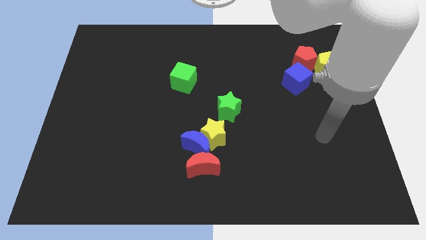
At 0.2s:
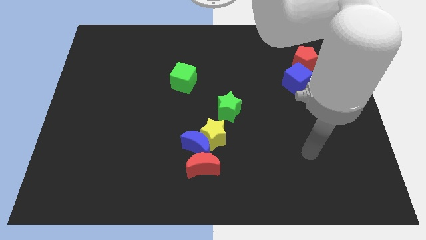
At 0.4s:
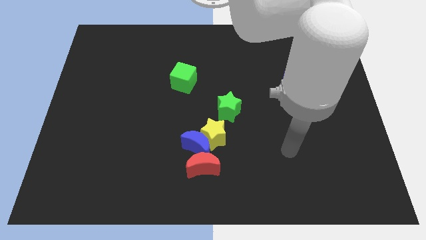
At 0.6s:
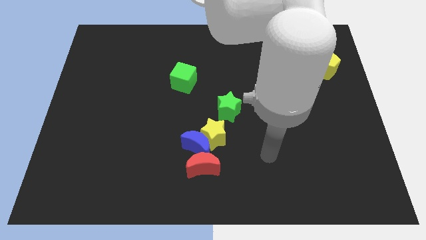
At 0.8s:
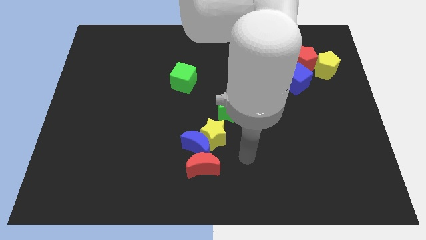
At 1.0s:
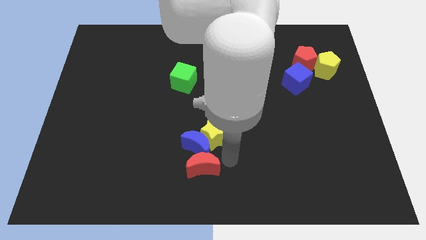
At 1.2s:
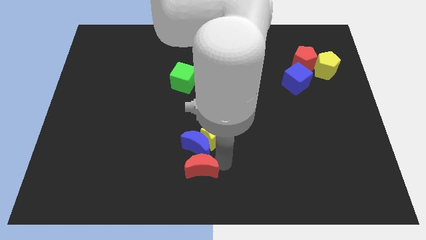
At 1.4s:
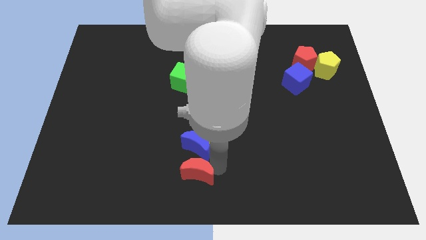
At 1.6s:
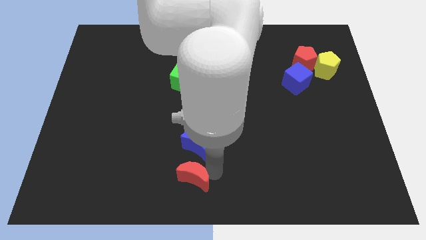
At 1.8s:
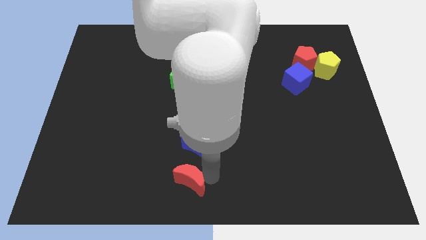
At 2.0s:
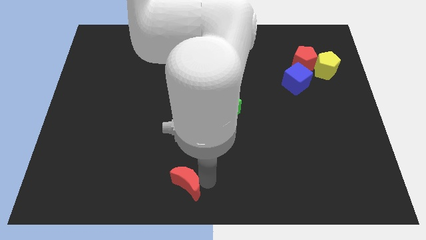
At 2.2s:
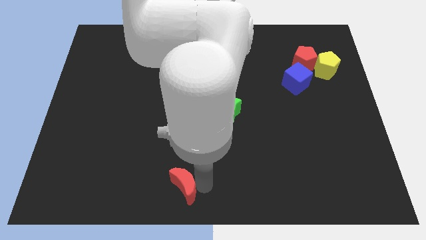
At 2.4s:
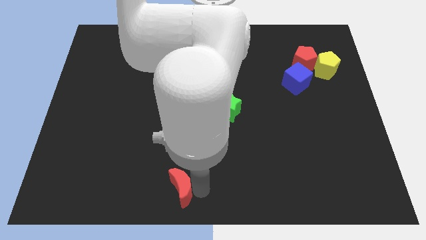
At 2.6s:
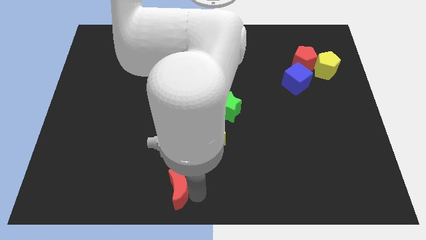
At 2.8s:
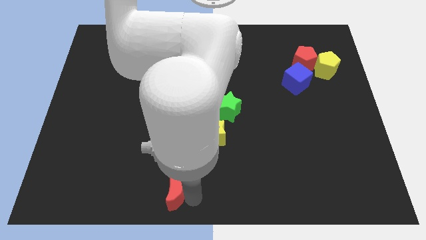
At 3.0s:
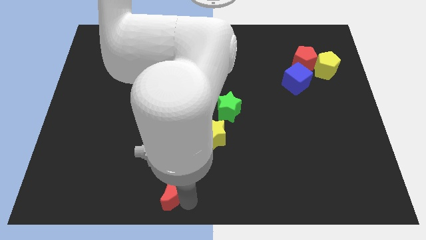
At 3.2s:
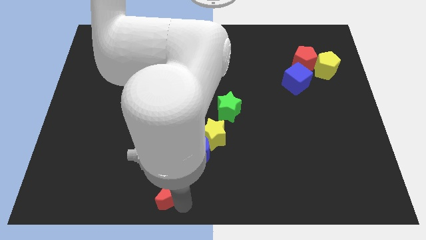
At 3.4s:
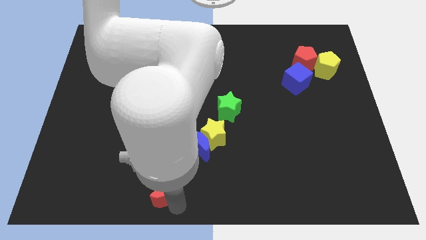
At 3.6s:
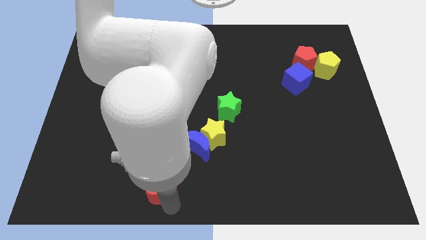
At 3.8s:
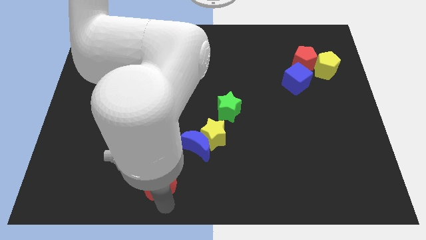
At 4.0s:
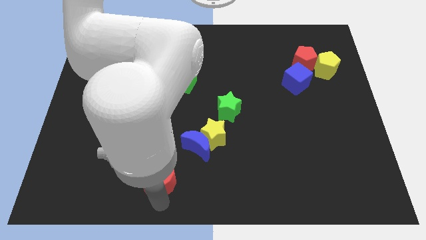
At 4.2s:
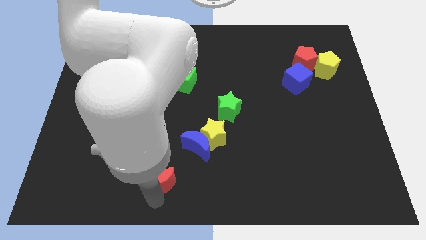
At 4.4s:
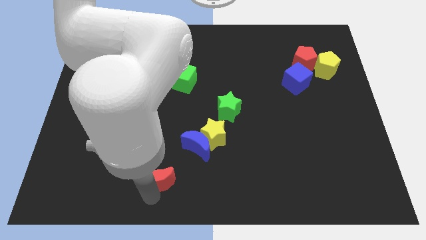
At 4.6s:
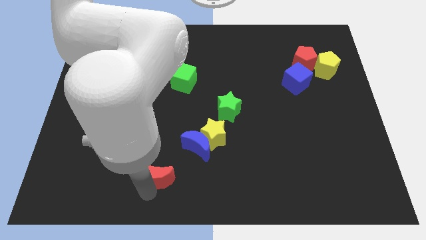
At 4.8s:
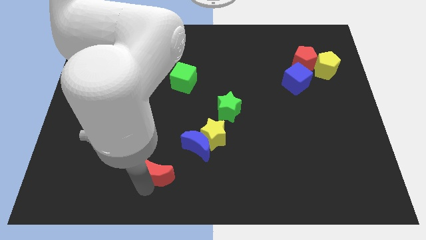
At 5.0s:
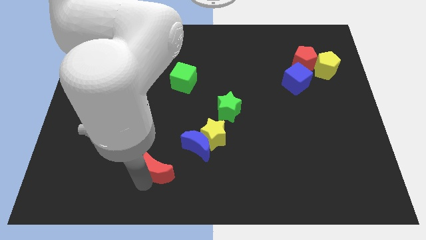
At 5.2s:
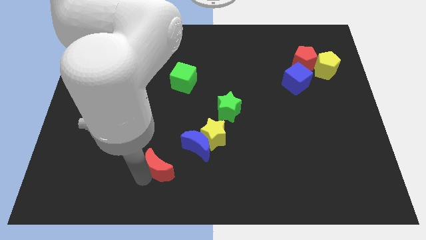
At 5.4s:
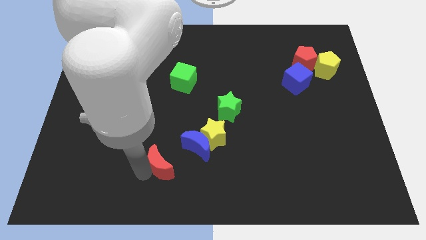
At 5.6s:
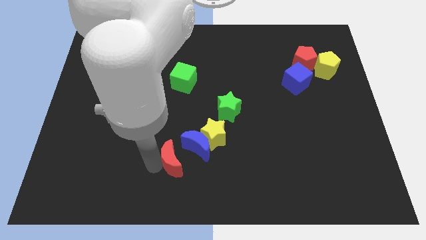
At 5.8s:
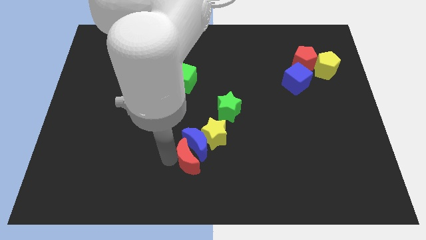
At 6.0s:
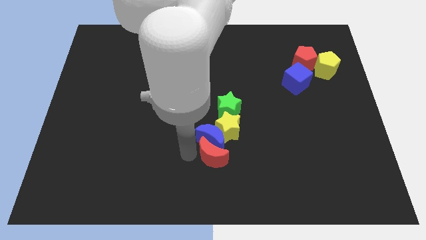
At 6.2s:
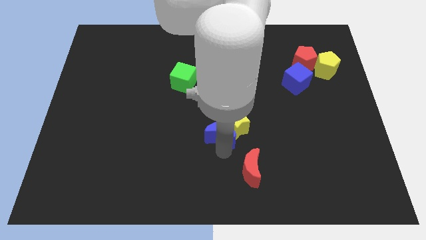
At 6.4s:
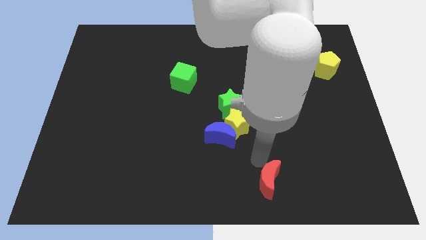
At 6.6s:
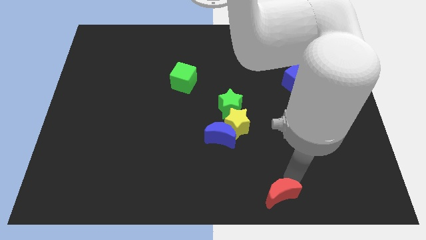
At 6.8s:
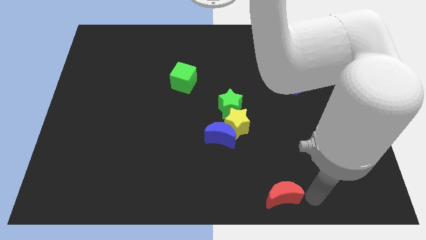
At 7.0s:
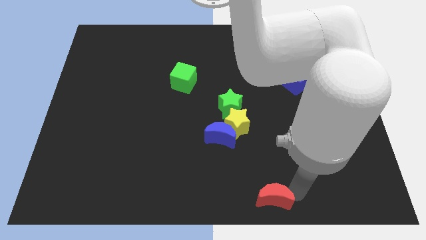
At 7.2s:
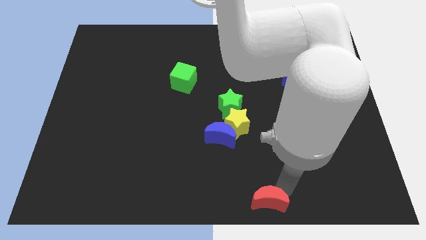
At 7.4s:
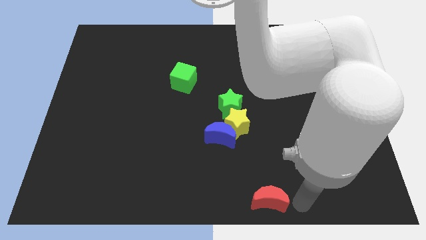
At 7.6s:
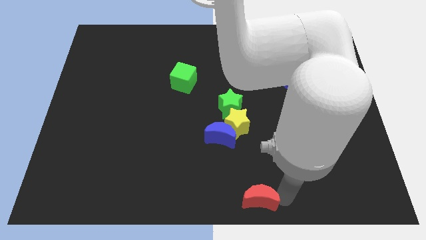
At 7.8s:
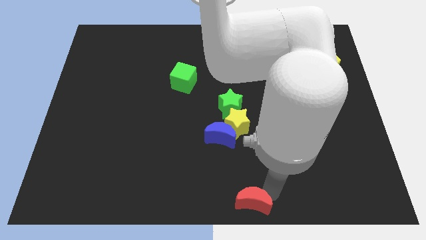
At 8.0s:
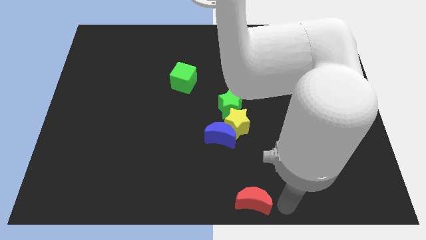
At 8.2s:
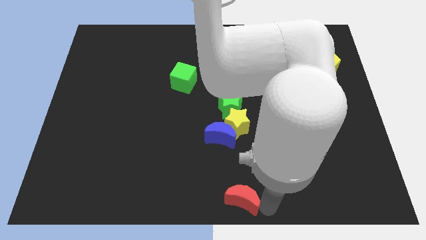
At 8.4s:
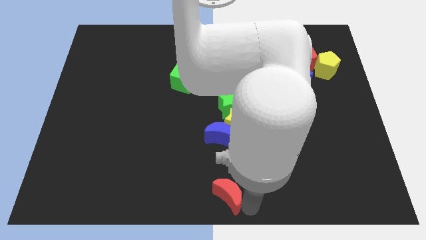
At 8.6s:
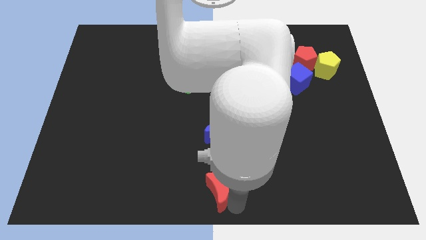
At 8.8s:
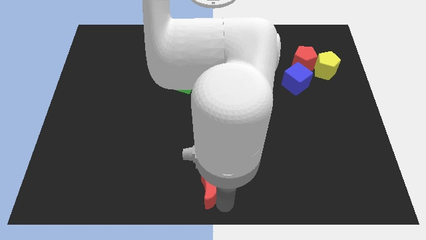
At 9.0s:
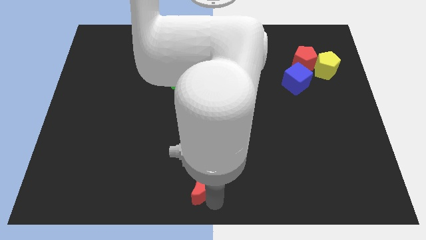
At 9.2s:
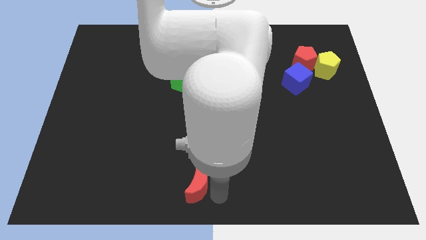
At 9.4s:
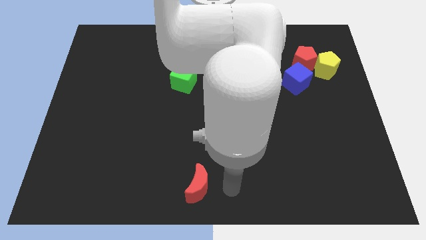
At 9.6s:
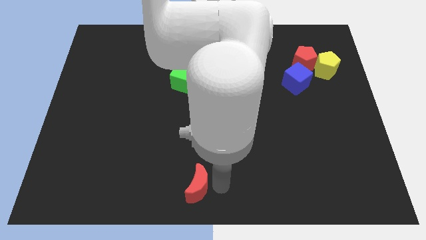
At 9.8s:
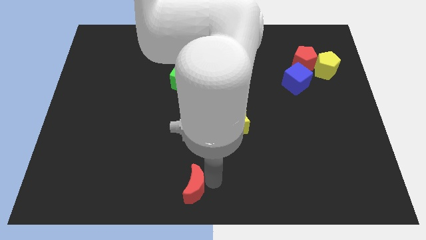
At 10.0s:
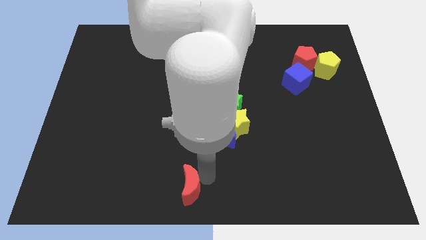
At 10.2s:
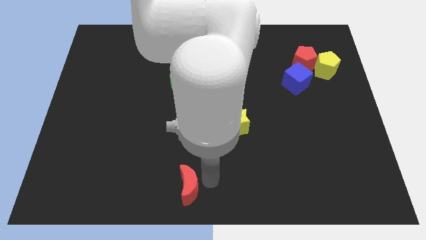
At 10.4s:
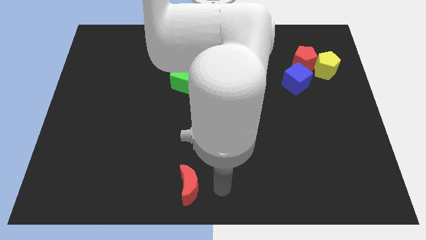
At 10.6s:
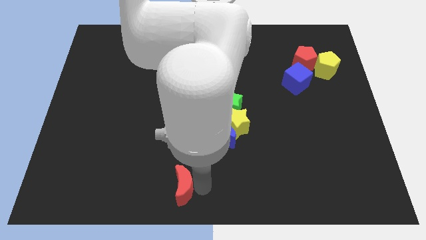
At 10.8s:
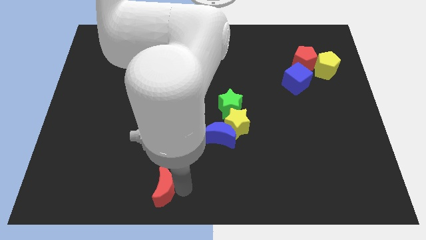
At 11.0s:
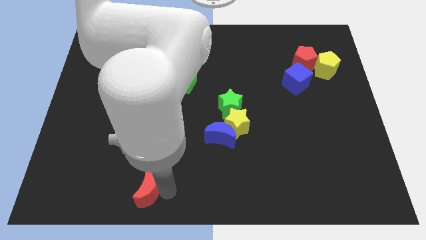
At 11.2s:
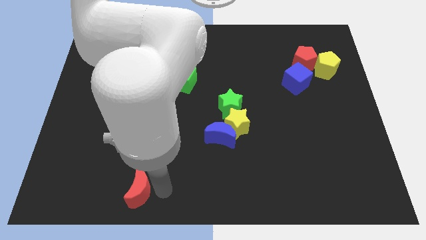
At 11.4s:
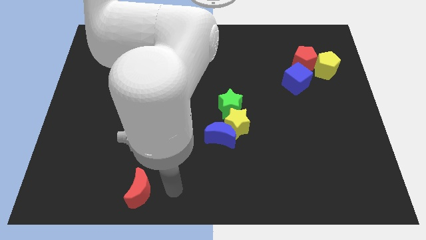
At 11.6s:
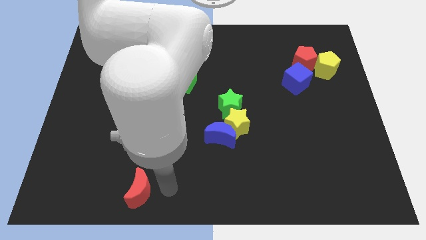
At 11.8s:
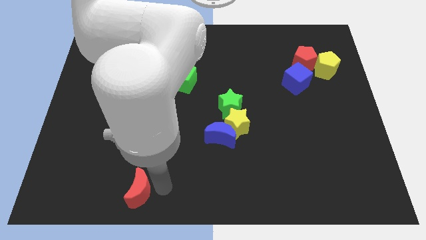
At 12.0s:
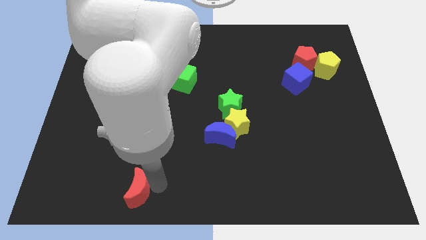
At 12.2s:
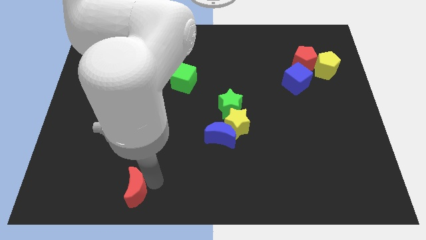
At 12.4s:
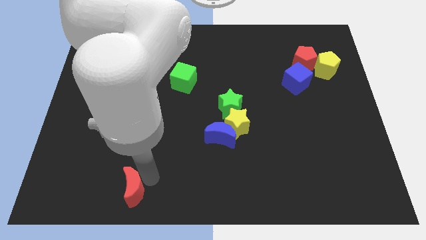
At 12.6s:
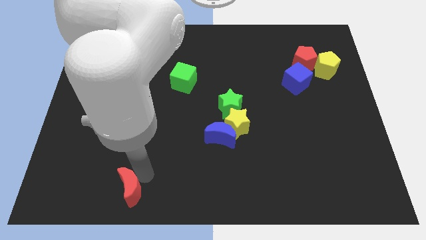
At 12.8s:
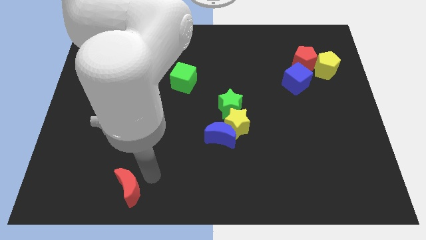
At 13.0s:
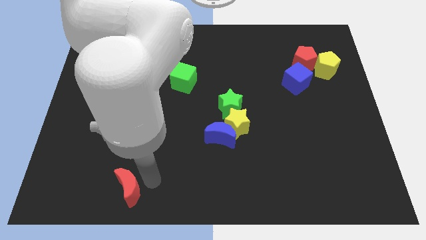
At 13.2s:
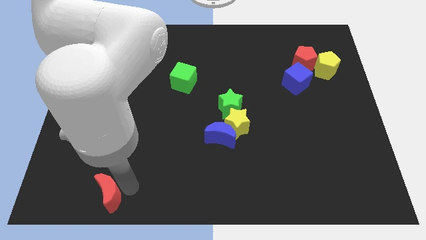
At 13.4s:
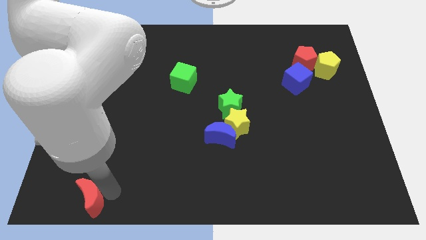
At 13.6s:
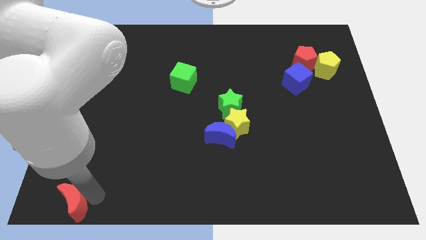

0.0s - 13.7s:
slide the red moon to the bottom left

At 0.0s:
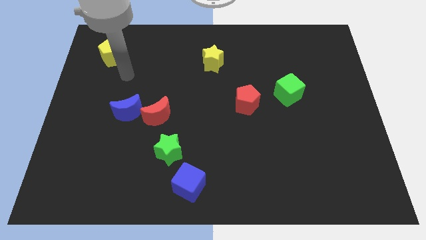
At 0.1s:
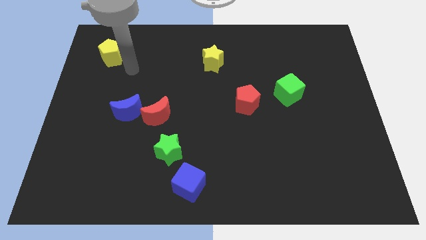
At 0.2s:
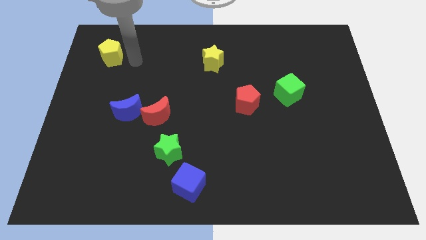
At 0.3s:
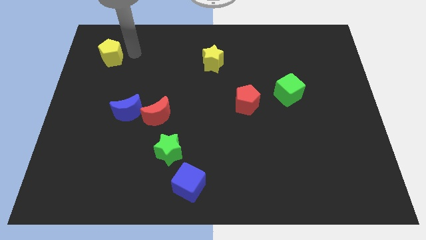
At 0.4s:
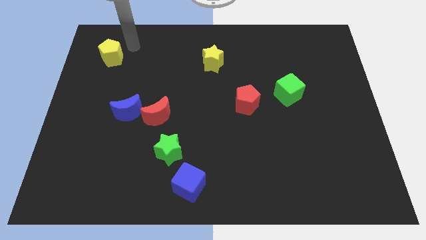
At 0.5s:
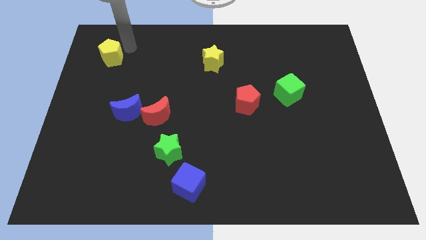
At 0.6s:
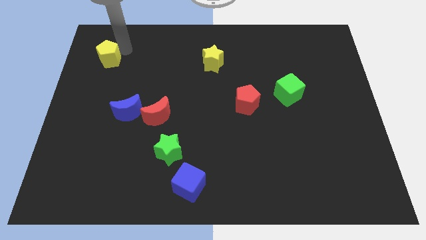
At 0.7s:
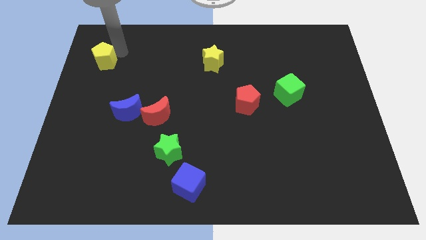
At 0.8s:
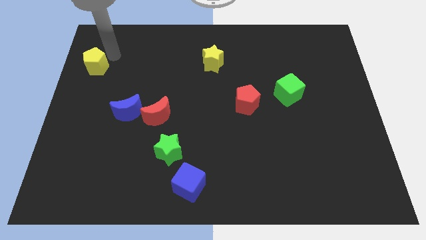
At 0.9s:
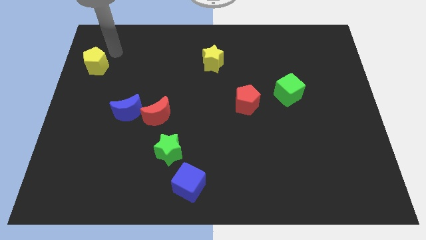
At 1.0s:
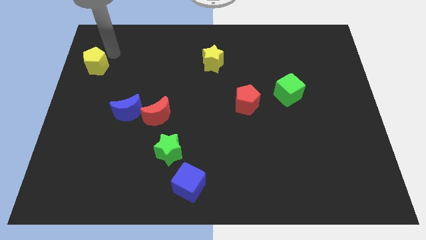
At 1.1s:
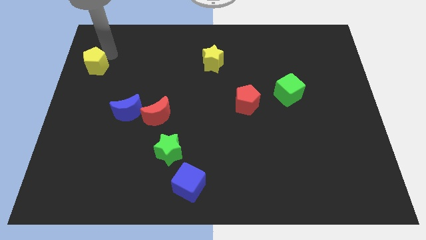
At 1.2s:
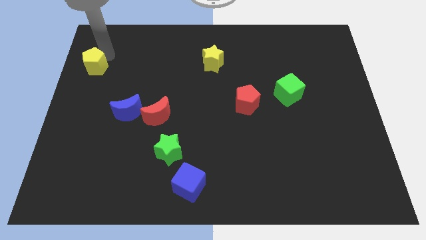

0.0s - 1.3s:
push the yellow pentagon to the left side
